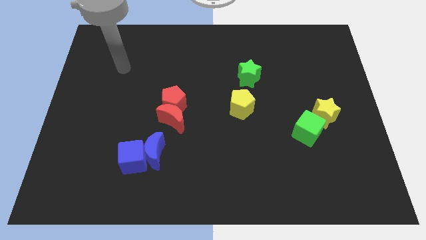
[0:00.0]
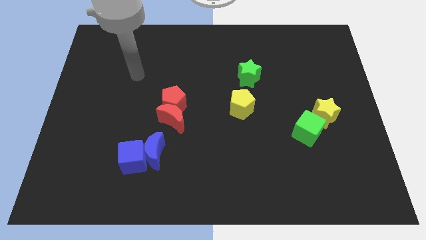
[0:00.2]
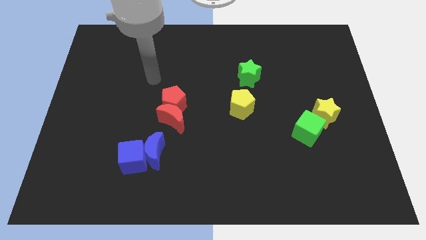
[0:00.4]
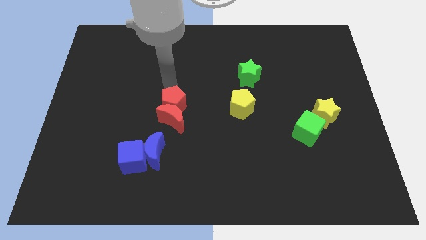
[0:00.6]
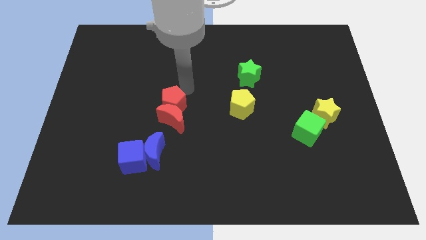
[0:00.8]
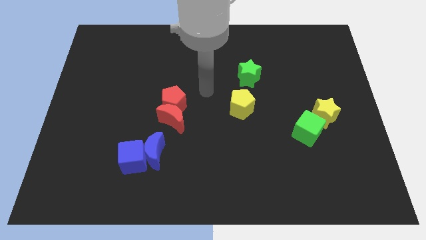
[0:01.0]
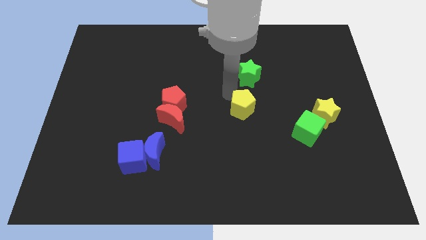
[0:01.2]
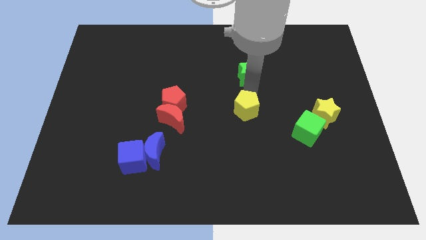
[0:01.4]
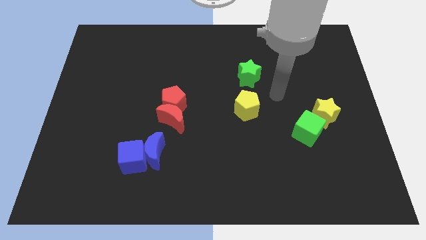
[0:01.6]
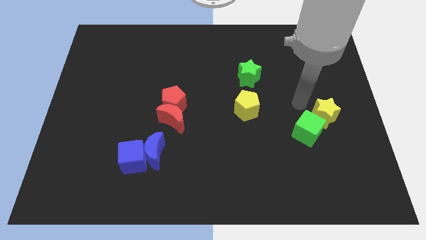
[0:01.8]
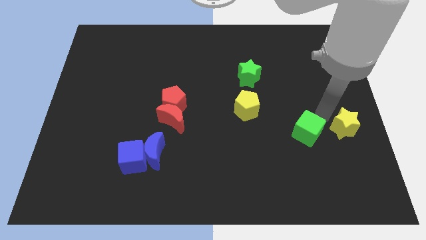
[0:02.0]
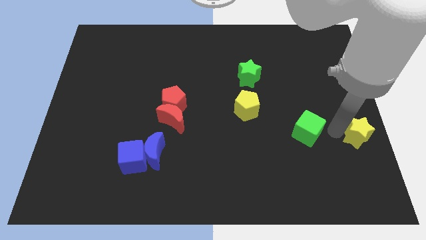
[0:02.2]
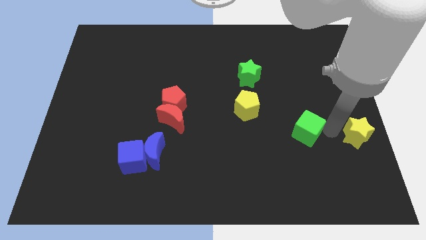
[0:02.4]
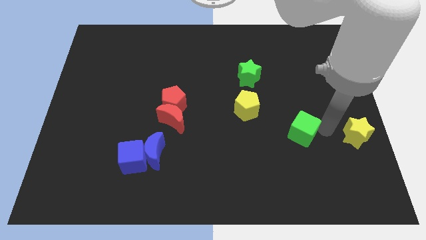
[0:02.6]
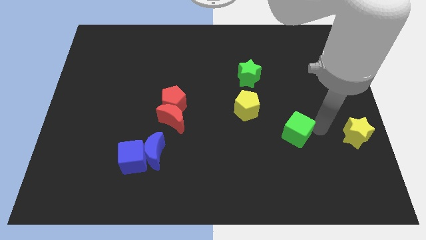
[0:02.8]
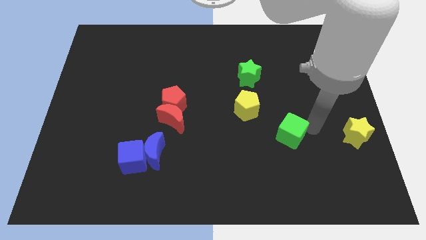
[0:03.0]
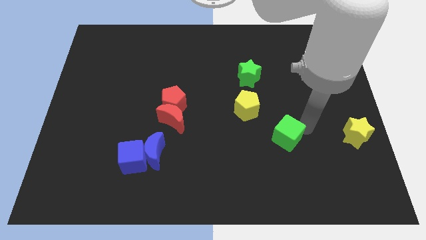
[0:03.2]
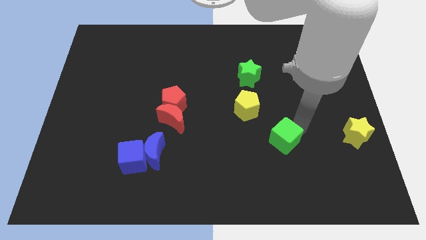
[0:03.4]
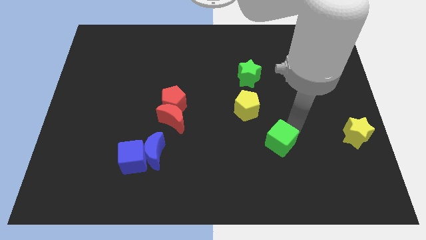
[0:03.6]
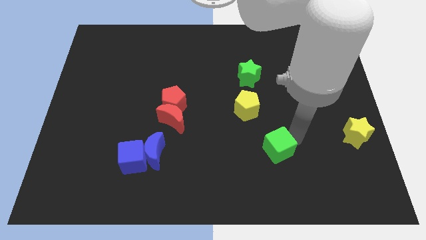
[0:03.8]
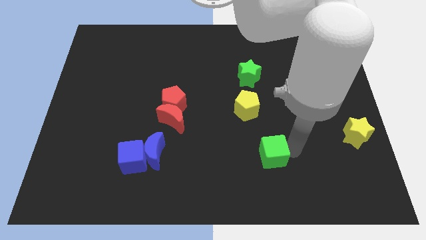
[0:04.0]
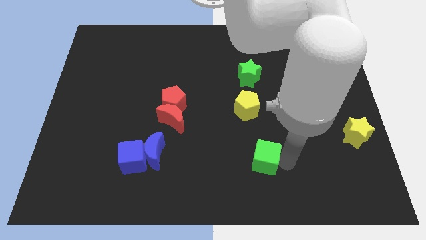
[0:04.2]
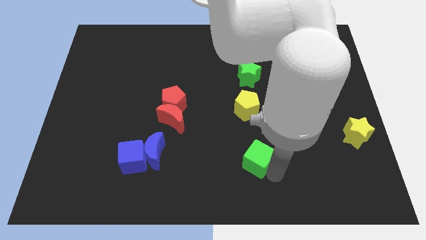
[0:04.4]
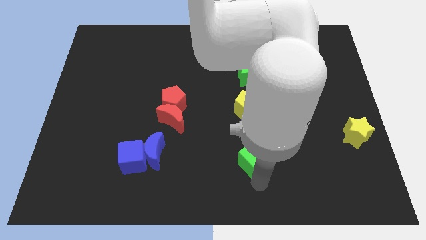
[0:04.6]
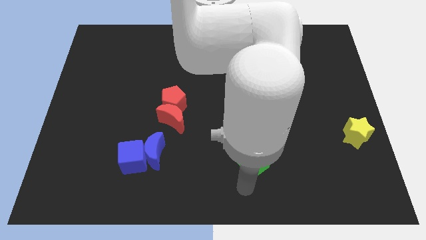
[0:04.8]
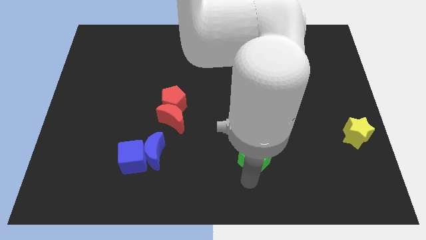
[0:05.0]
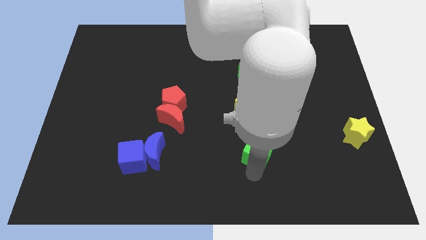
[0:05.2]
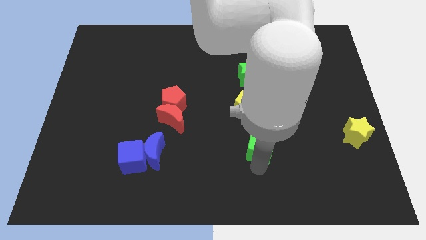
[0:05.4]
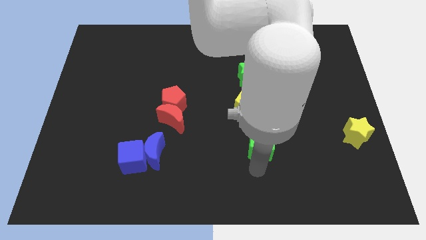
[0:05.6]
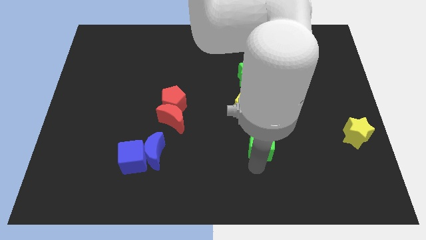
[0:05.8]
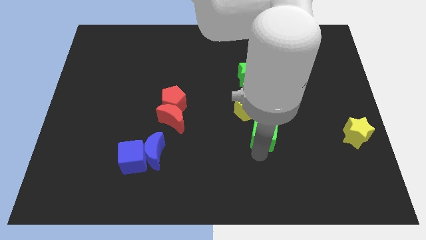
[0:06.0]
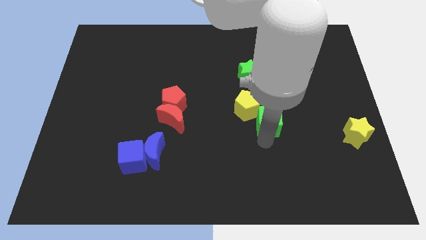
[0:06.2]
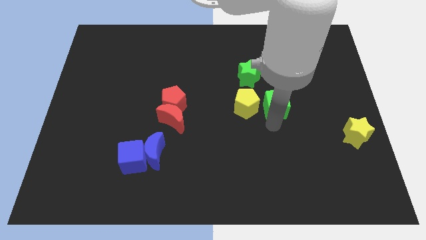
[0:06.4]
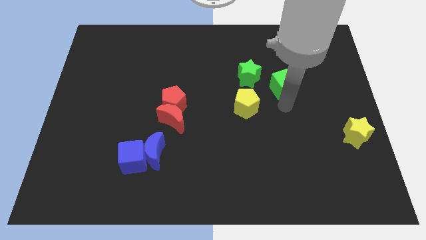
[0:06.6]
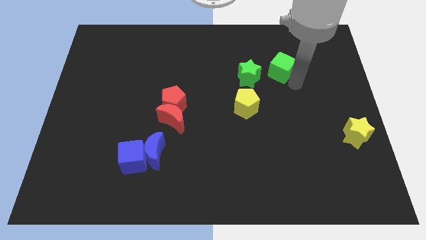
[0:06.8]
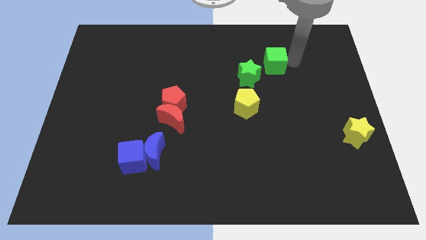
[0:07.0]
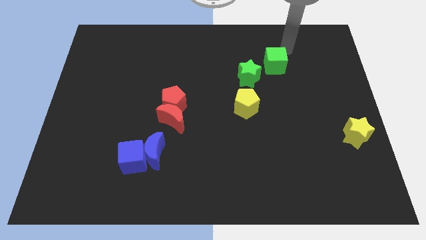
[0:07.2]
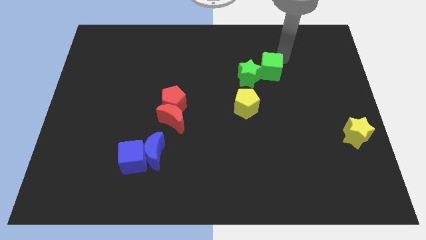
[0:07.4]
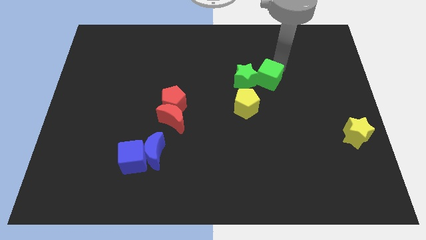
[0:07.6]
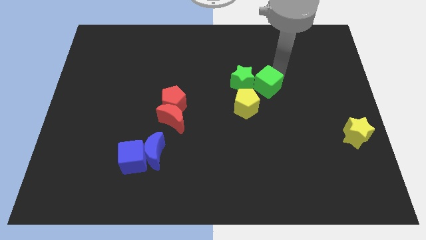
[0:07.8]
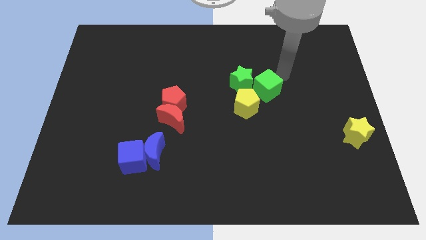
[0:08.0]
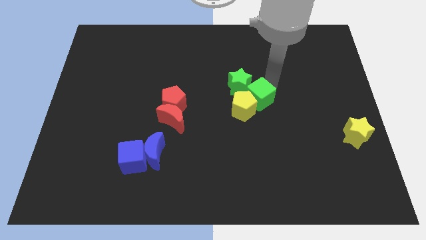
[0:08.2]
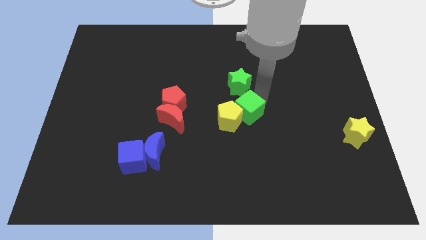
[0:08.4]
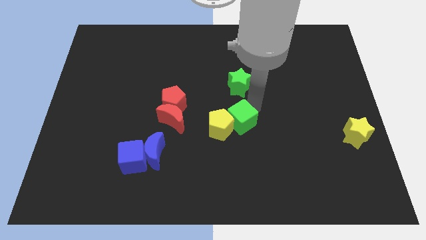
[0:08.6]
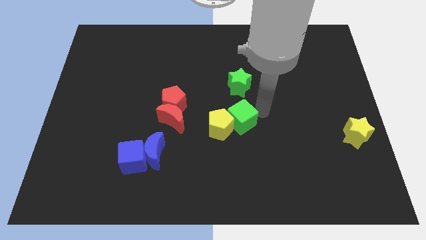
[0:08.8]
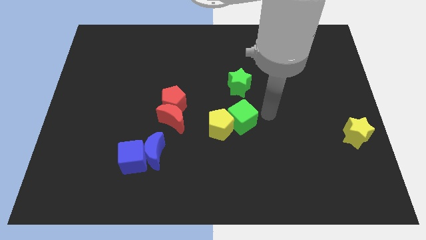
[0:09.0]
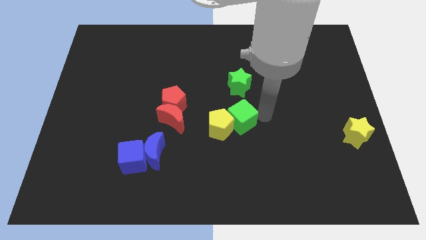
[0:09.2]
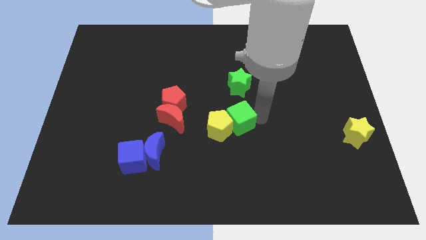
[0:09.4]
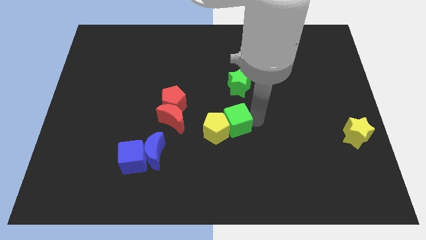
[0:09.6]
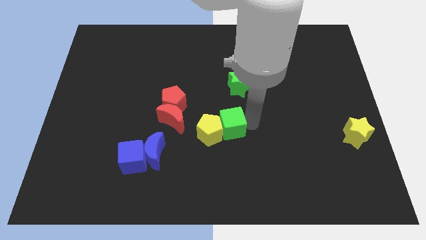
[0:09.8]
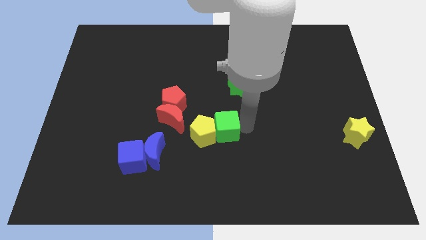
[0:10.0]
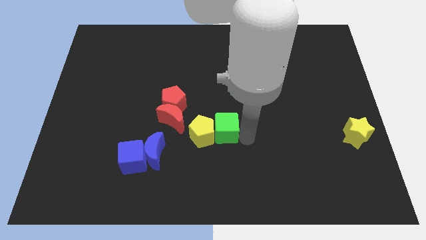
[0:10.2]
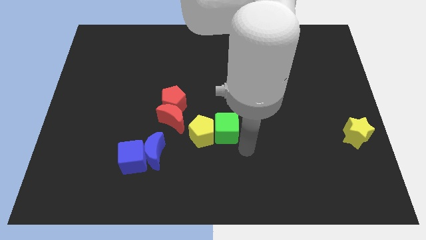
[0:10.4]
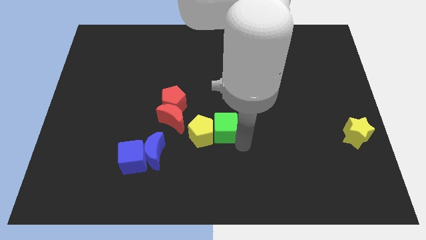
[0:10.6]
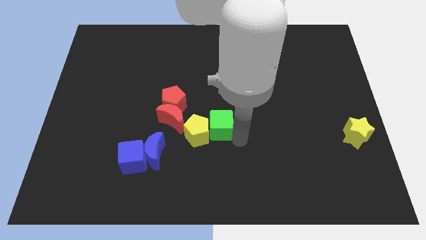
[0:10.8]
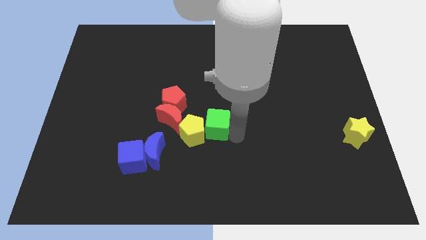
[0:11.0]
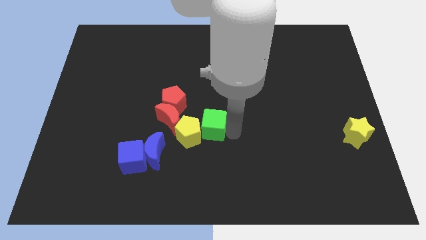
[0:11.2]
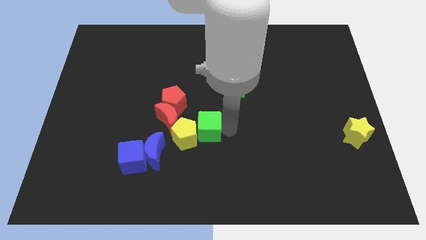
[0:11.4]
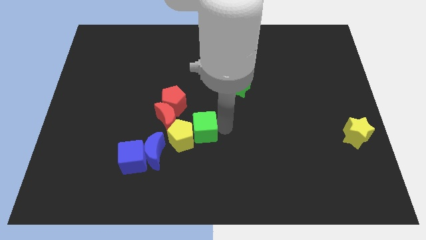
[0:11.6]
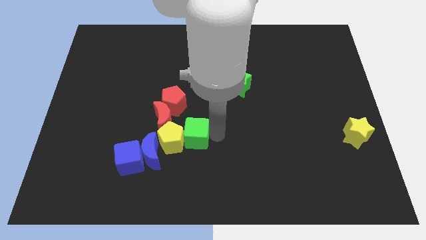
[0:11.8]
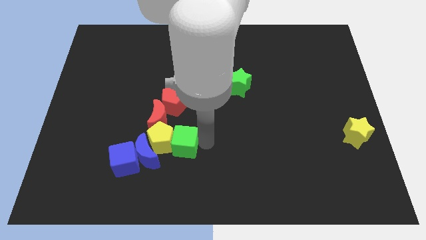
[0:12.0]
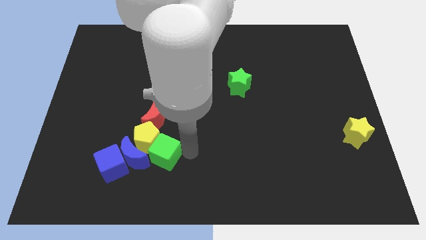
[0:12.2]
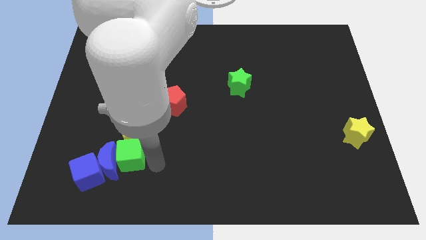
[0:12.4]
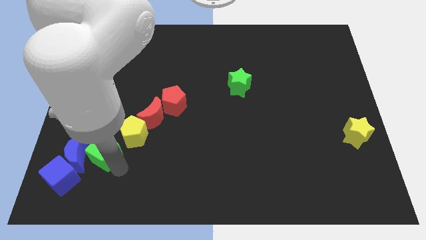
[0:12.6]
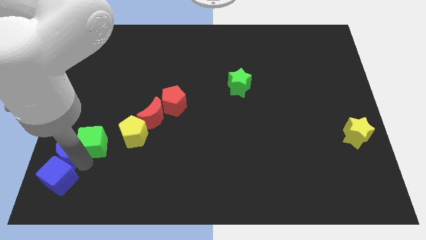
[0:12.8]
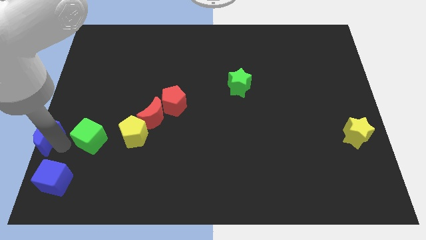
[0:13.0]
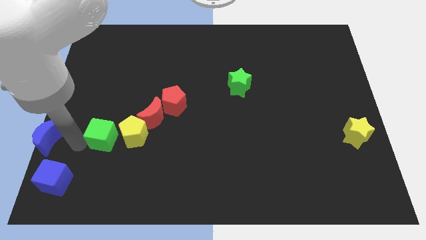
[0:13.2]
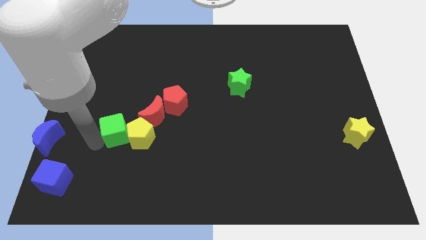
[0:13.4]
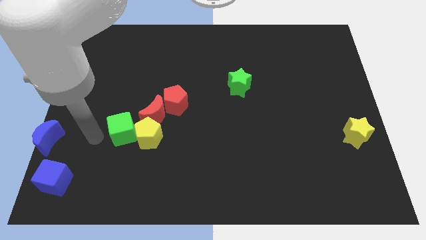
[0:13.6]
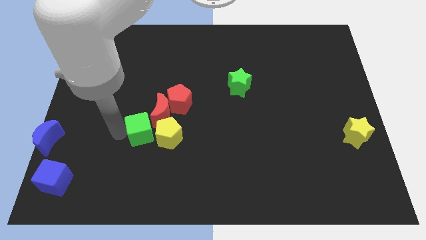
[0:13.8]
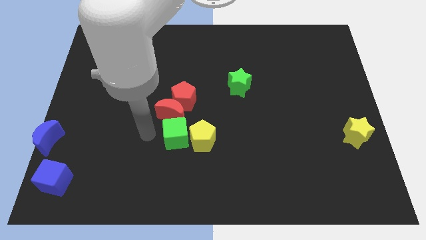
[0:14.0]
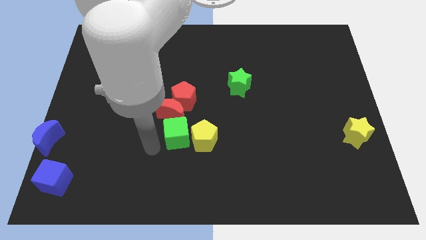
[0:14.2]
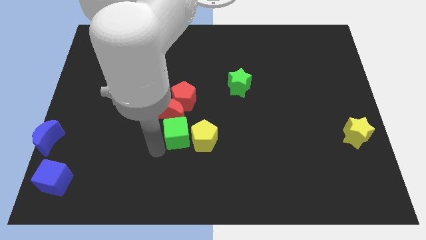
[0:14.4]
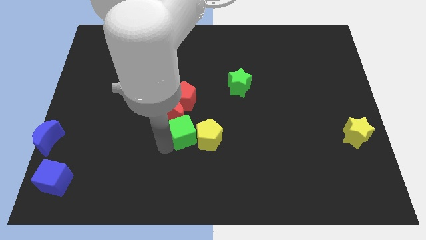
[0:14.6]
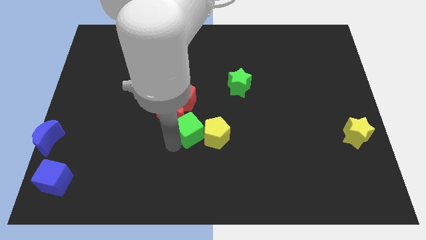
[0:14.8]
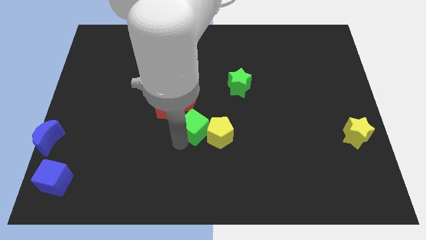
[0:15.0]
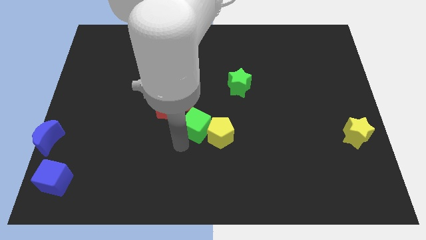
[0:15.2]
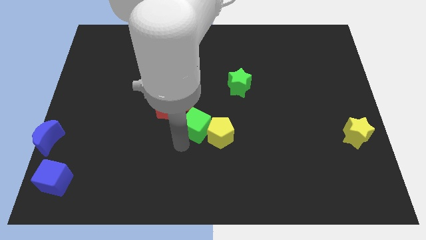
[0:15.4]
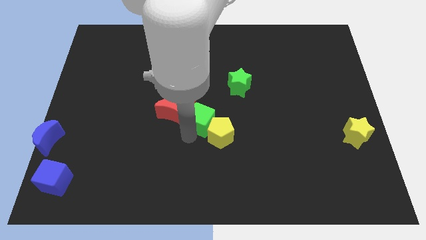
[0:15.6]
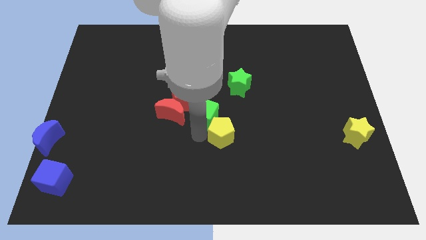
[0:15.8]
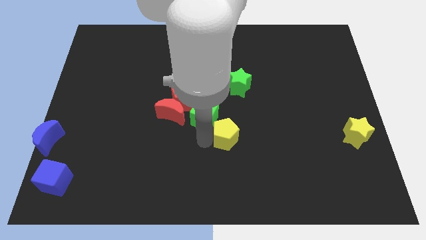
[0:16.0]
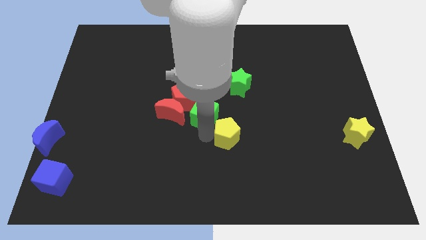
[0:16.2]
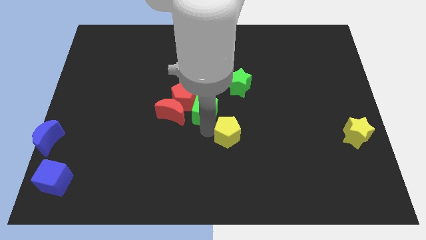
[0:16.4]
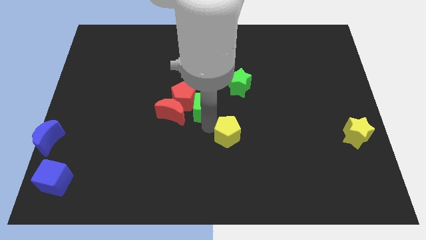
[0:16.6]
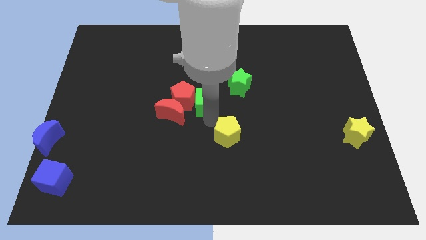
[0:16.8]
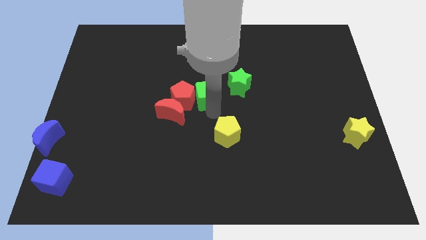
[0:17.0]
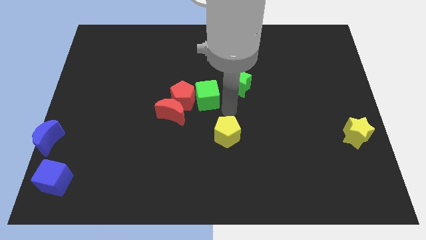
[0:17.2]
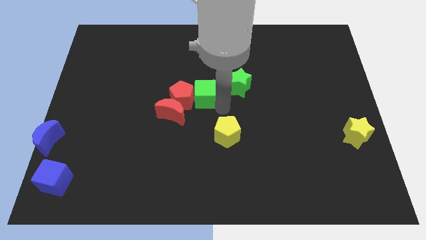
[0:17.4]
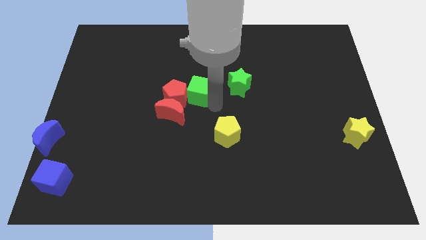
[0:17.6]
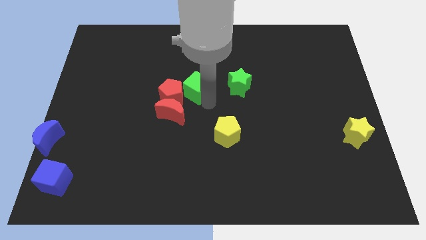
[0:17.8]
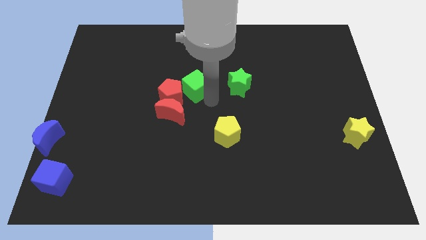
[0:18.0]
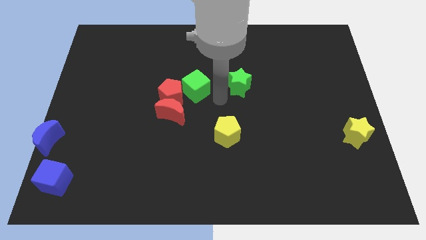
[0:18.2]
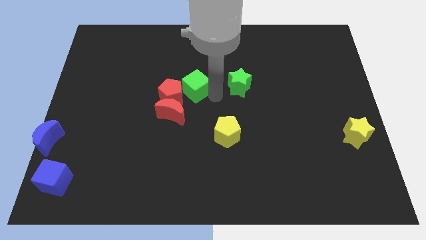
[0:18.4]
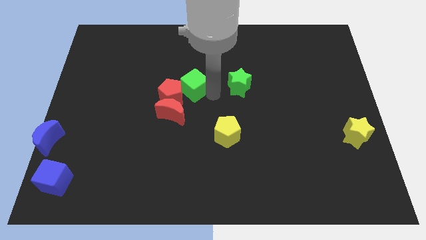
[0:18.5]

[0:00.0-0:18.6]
move the green cube above the red moon
